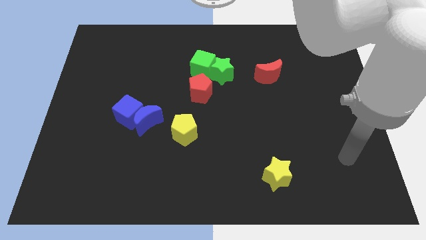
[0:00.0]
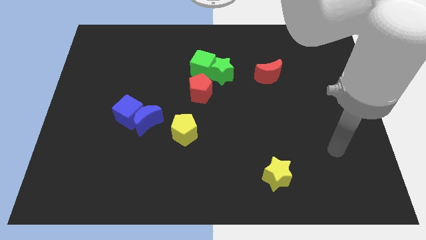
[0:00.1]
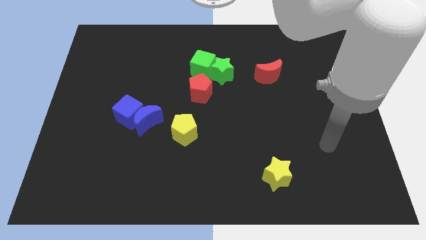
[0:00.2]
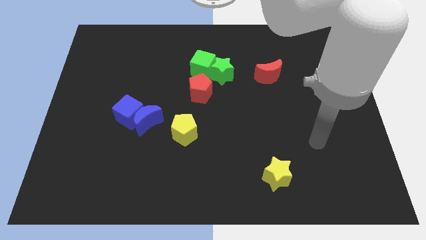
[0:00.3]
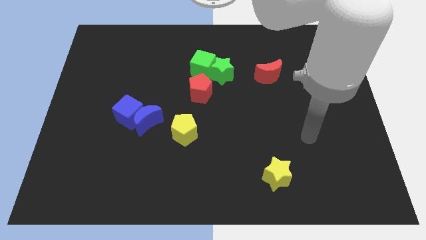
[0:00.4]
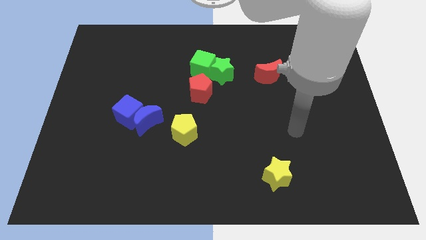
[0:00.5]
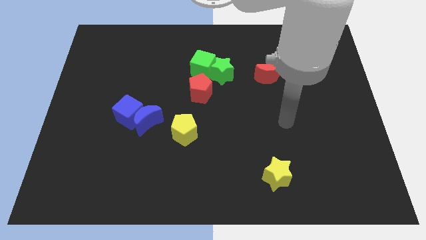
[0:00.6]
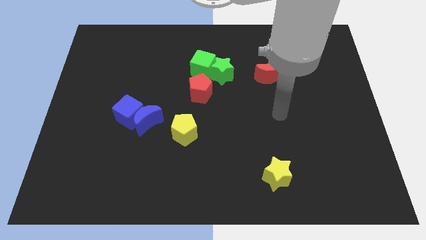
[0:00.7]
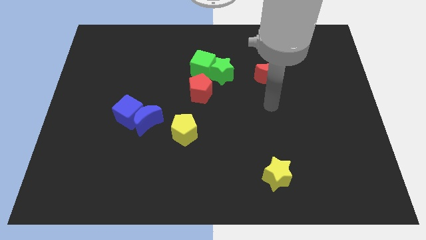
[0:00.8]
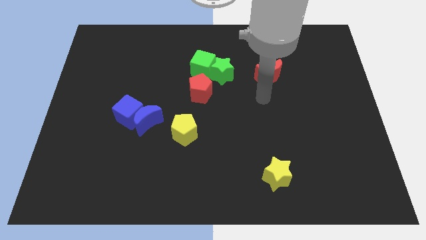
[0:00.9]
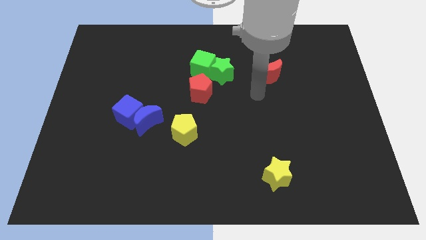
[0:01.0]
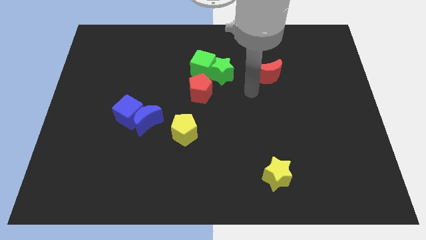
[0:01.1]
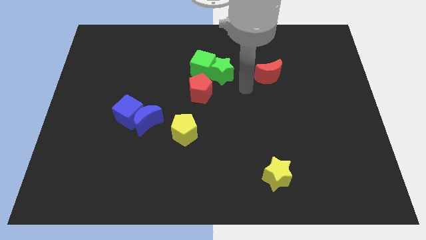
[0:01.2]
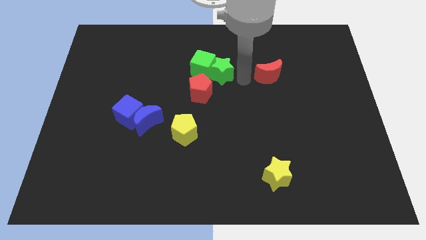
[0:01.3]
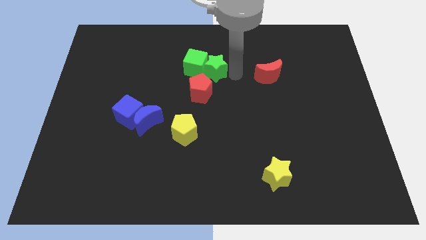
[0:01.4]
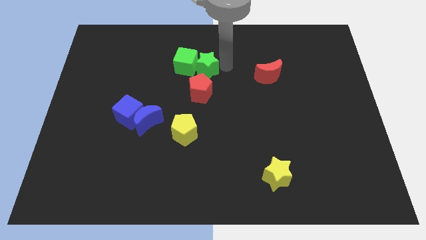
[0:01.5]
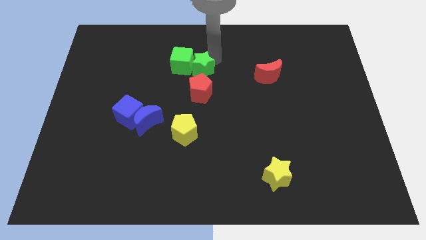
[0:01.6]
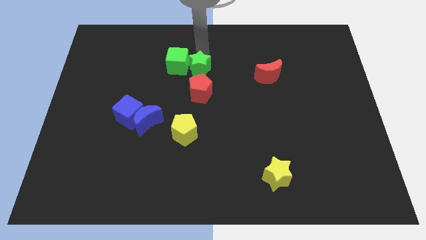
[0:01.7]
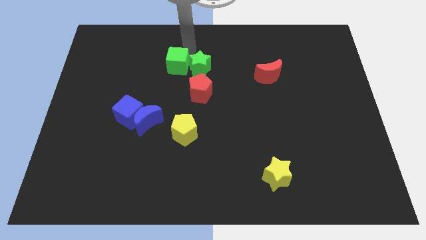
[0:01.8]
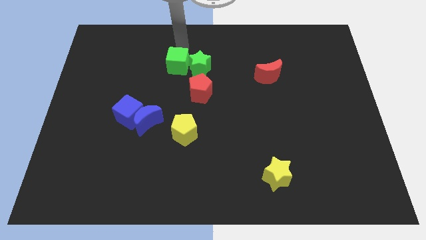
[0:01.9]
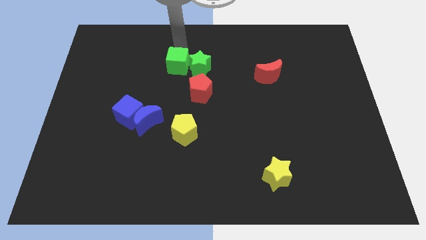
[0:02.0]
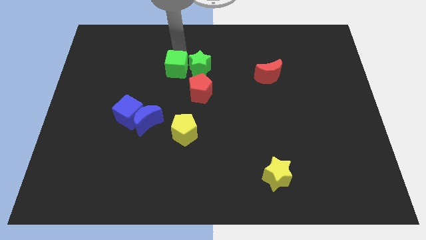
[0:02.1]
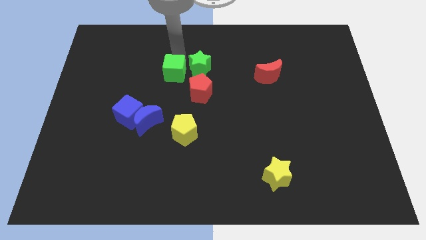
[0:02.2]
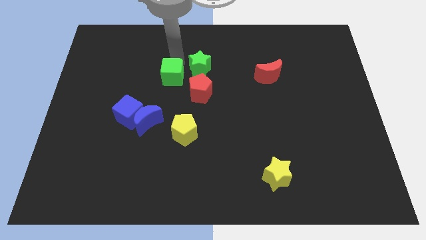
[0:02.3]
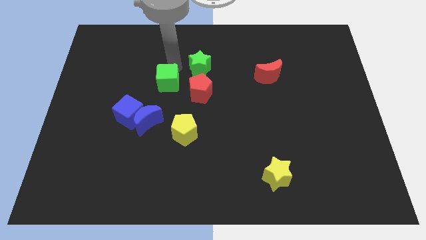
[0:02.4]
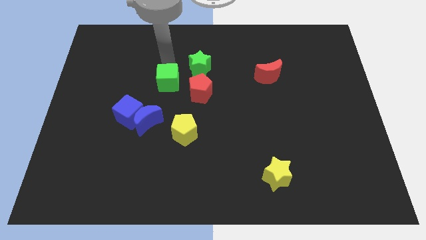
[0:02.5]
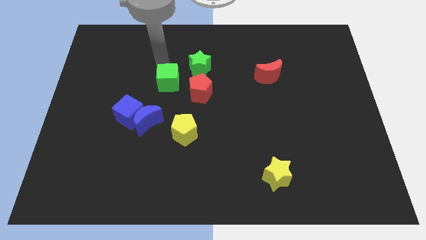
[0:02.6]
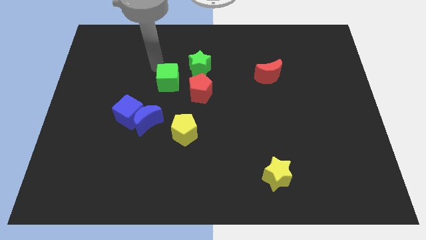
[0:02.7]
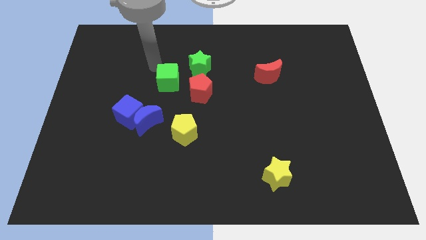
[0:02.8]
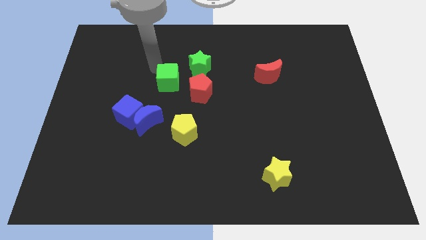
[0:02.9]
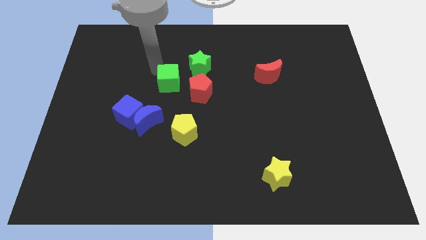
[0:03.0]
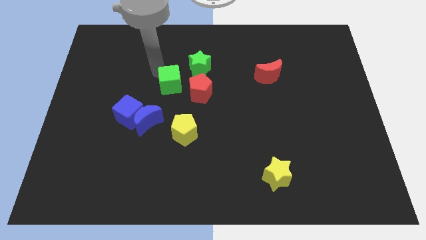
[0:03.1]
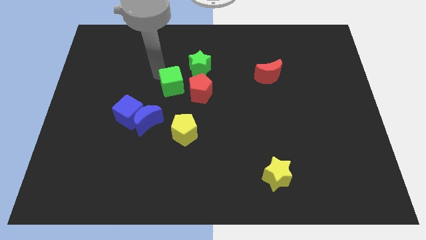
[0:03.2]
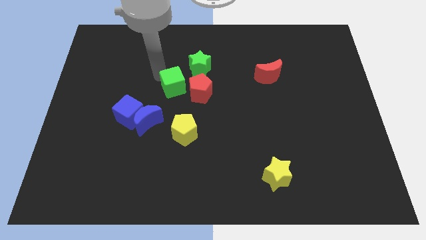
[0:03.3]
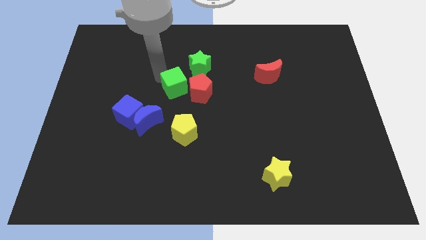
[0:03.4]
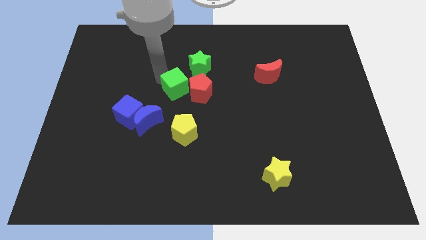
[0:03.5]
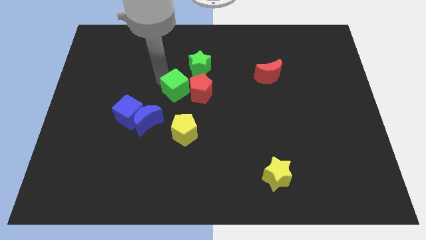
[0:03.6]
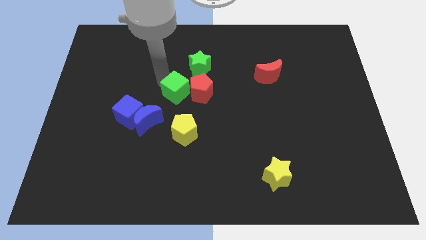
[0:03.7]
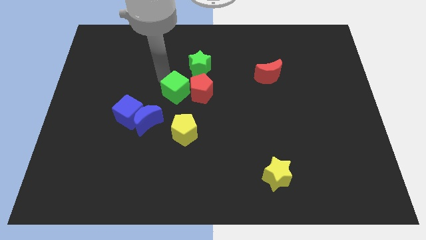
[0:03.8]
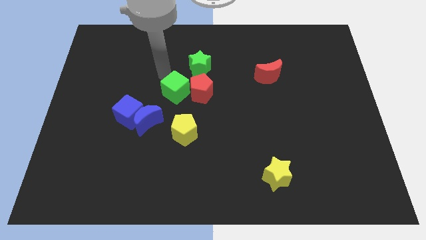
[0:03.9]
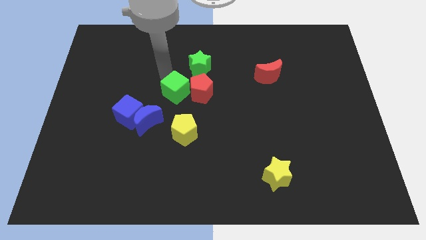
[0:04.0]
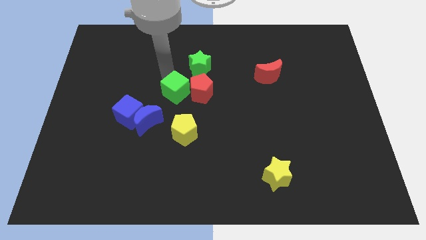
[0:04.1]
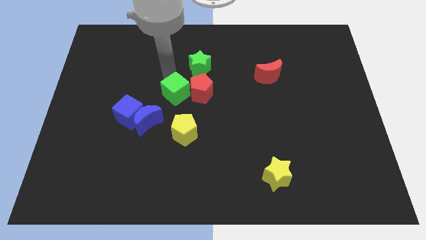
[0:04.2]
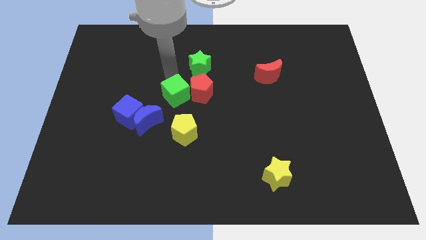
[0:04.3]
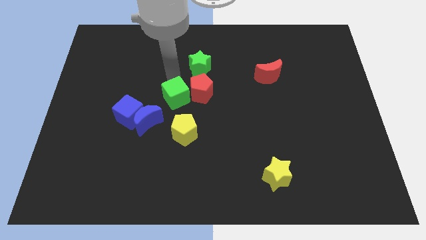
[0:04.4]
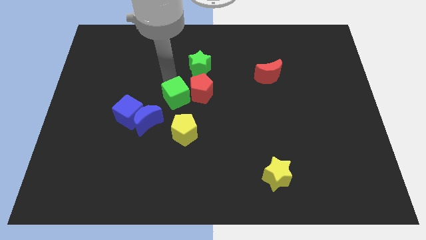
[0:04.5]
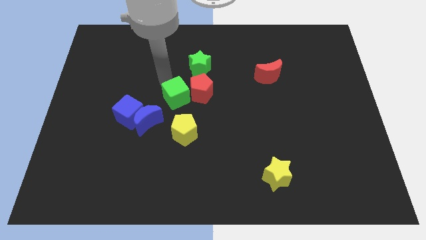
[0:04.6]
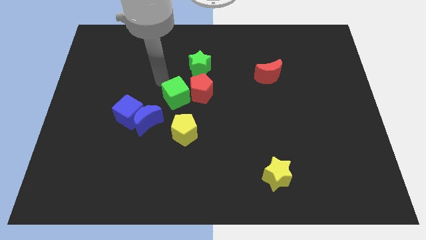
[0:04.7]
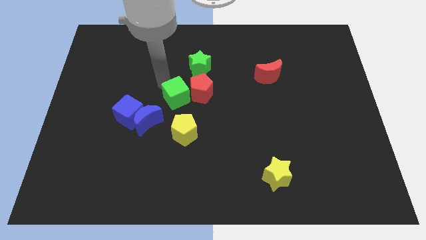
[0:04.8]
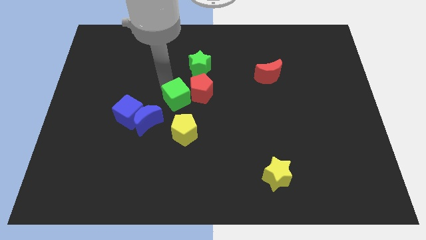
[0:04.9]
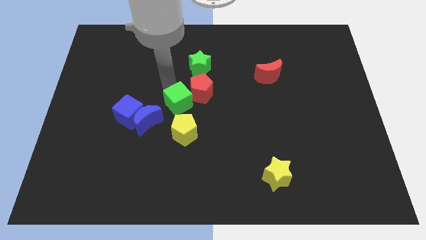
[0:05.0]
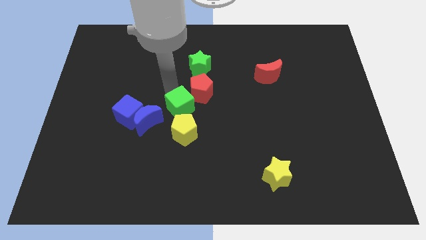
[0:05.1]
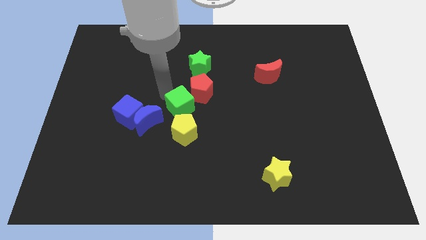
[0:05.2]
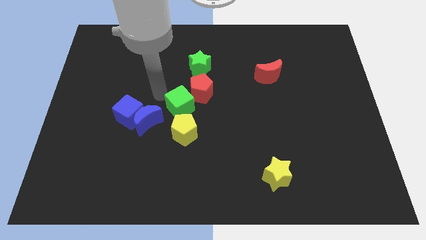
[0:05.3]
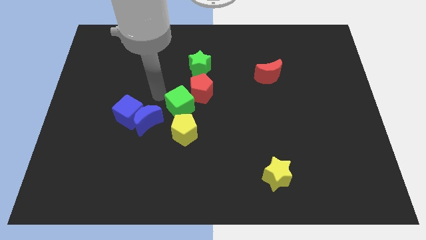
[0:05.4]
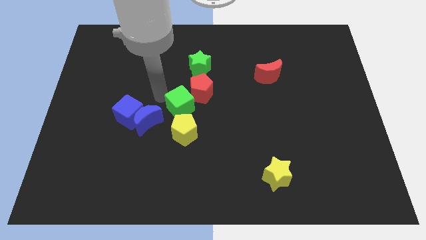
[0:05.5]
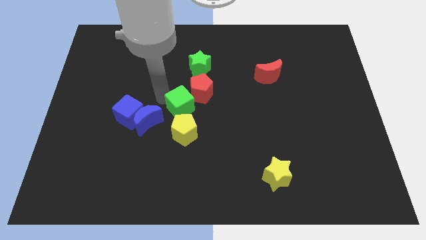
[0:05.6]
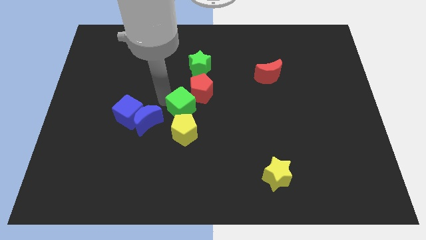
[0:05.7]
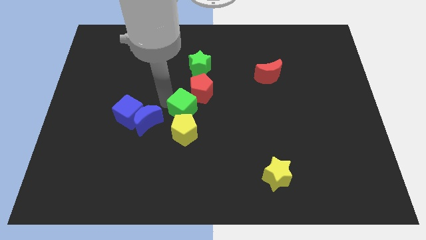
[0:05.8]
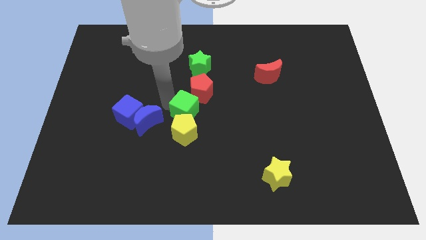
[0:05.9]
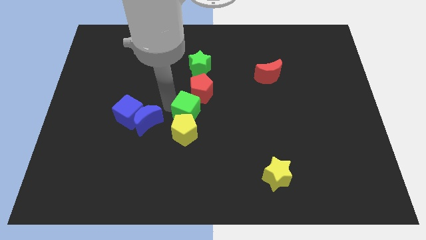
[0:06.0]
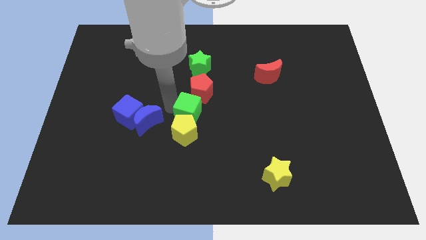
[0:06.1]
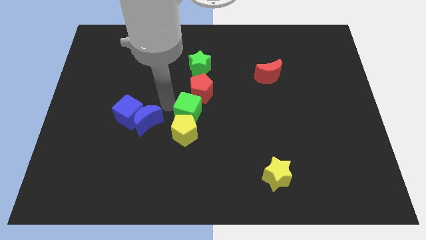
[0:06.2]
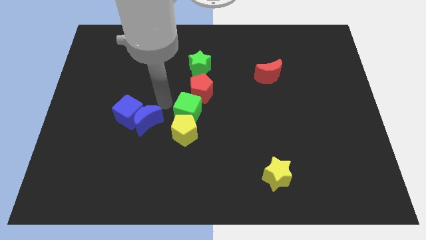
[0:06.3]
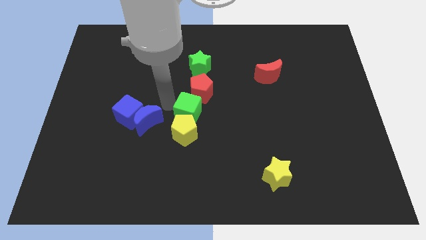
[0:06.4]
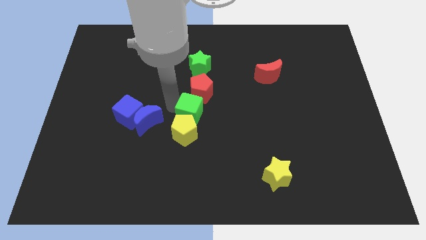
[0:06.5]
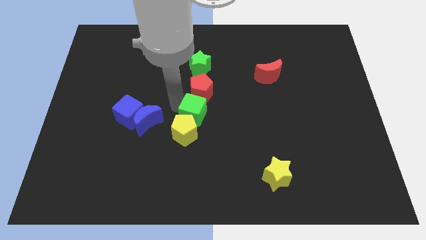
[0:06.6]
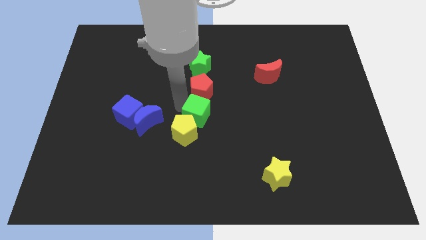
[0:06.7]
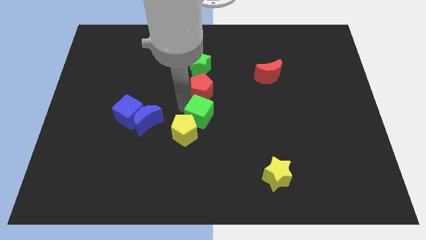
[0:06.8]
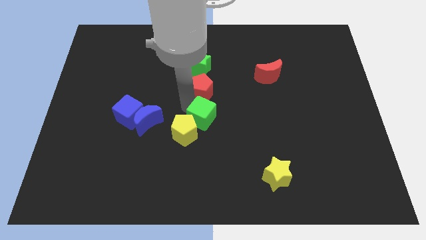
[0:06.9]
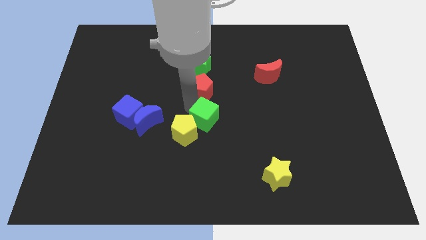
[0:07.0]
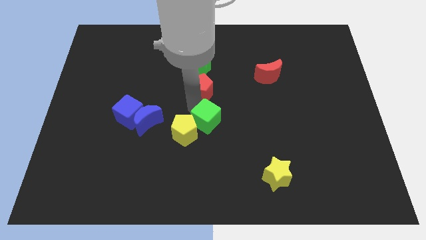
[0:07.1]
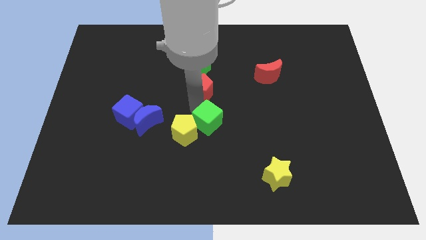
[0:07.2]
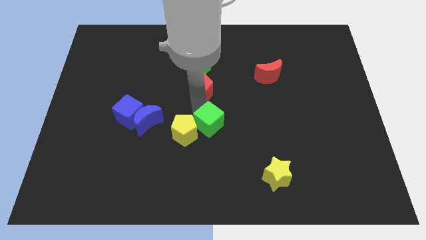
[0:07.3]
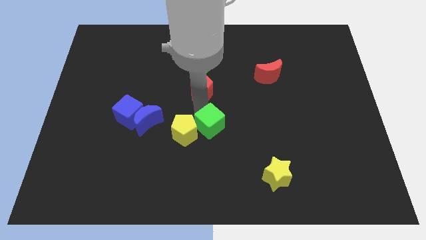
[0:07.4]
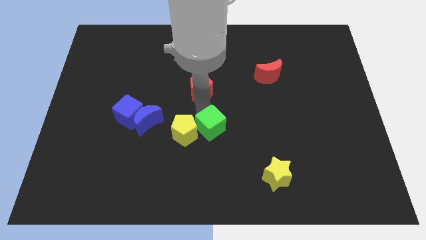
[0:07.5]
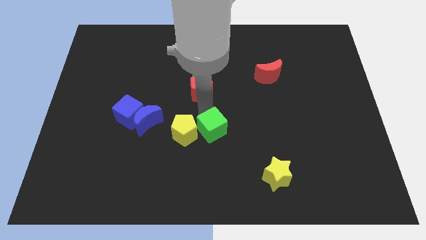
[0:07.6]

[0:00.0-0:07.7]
push the green cube to the bottom right side of the yellow pentagon
